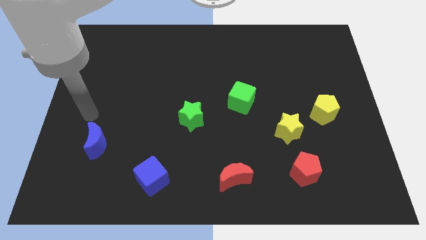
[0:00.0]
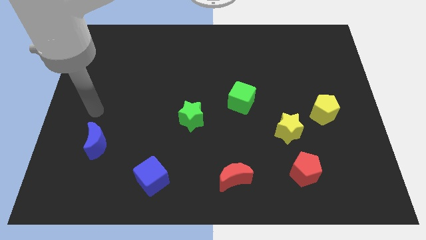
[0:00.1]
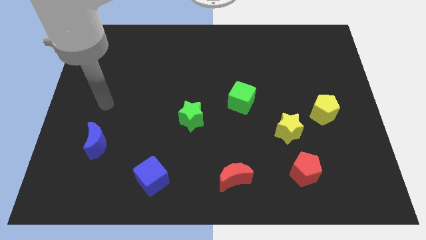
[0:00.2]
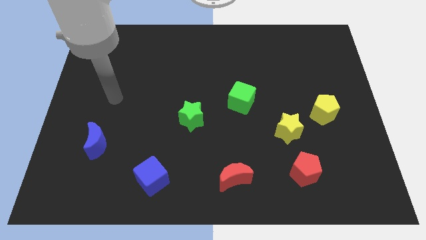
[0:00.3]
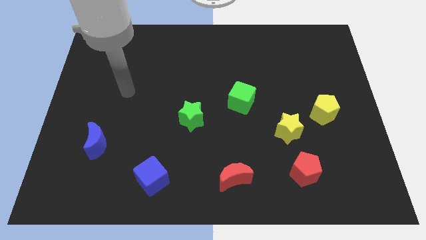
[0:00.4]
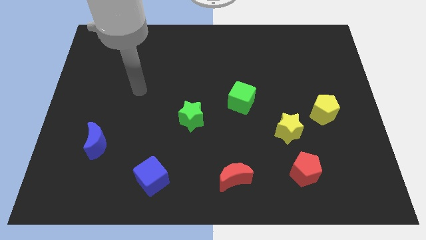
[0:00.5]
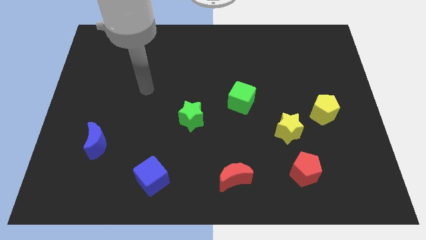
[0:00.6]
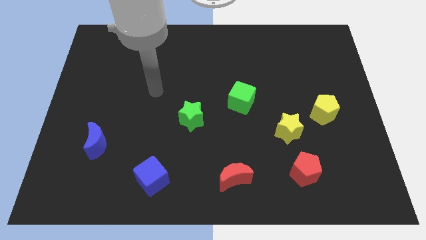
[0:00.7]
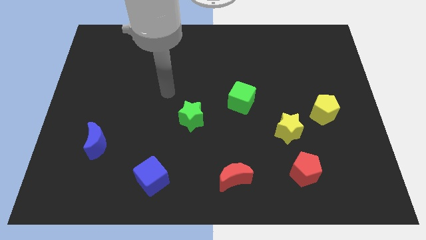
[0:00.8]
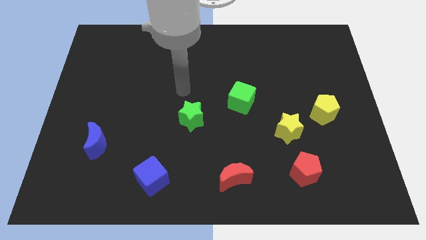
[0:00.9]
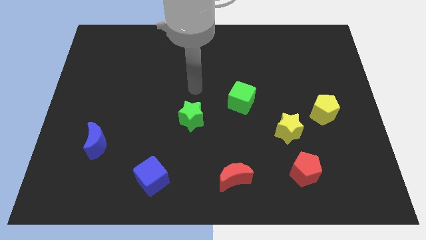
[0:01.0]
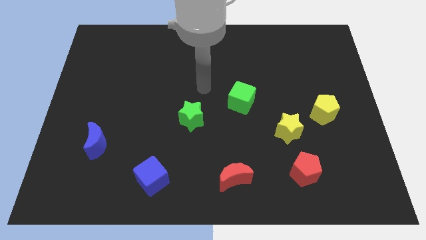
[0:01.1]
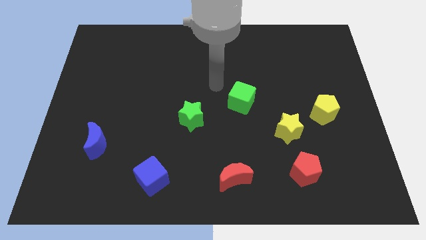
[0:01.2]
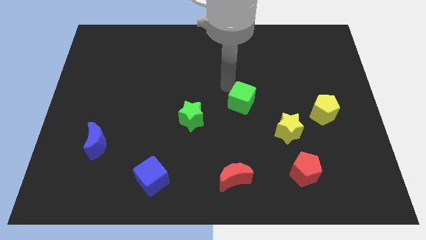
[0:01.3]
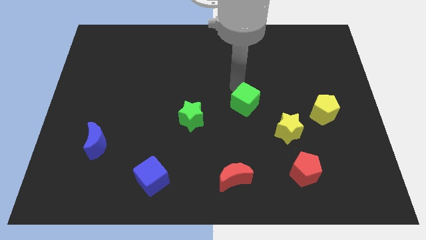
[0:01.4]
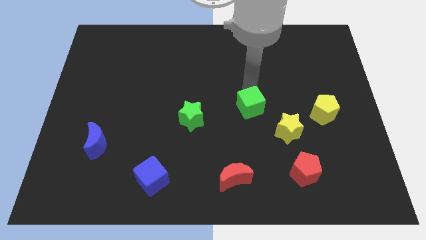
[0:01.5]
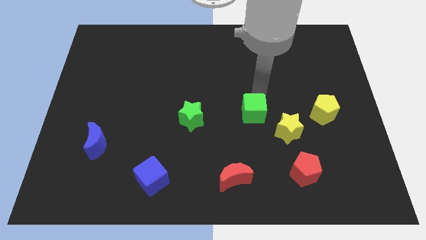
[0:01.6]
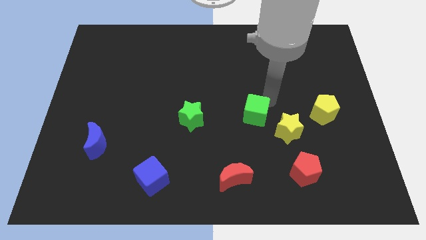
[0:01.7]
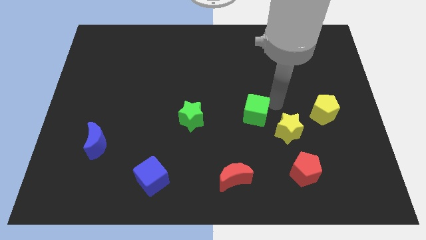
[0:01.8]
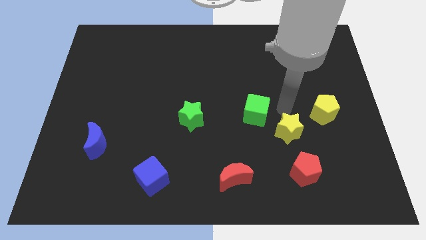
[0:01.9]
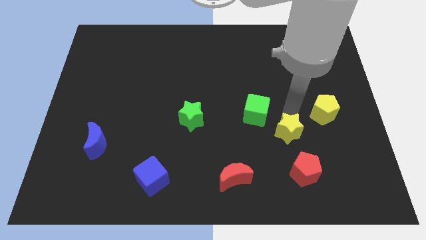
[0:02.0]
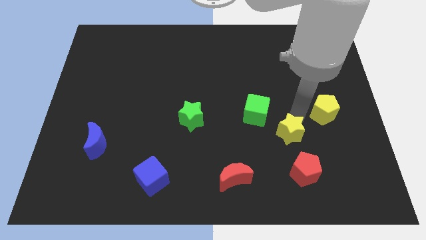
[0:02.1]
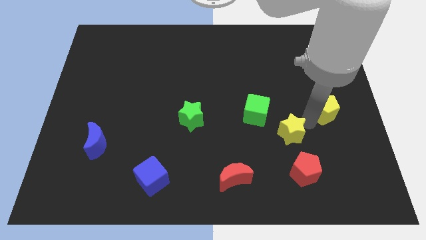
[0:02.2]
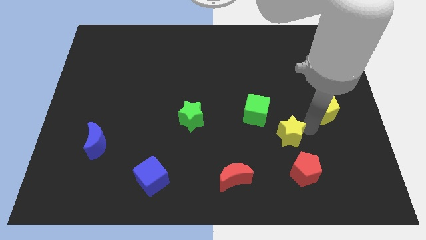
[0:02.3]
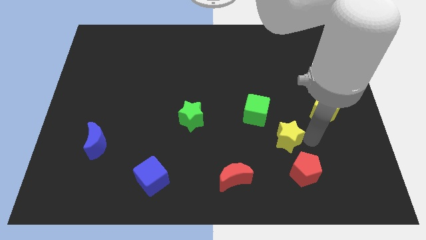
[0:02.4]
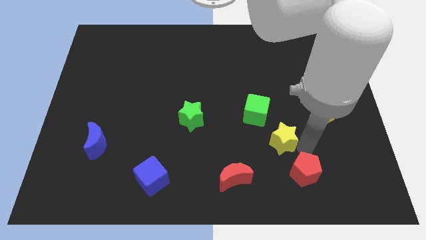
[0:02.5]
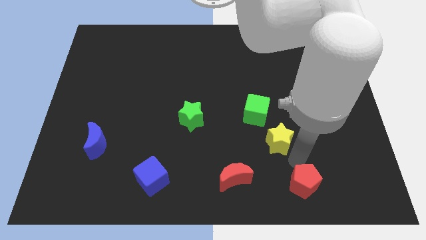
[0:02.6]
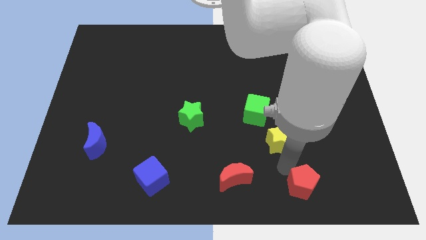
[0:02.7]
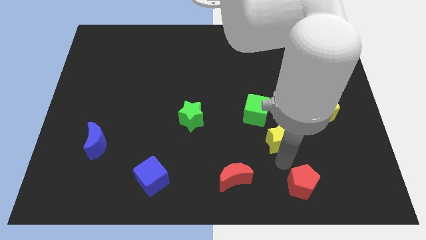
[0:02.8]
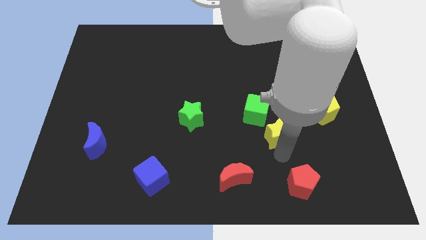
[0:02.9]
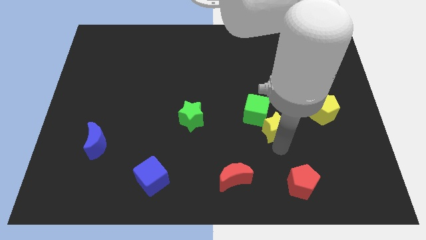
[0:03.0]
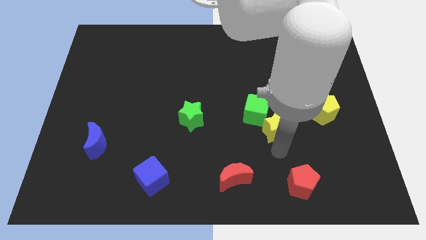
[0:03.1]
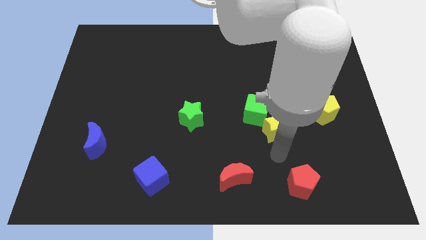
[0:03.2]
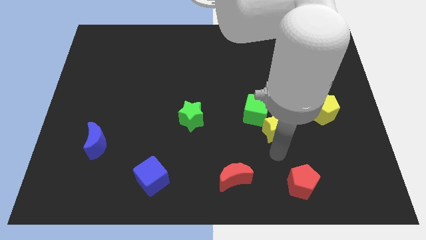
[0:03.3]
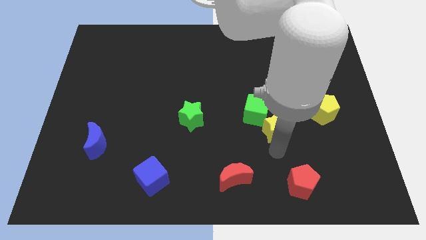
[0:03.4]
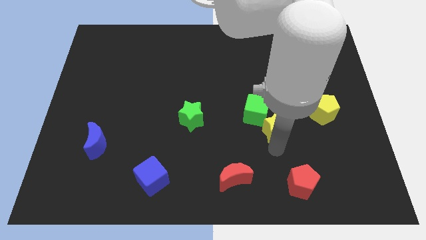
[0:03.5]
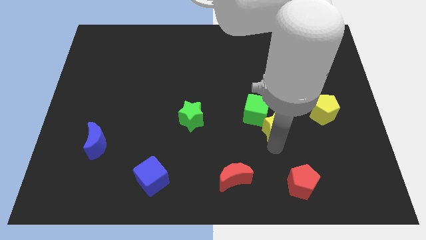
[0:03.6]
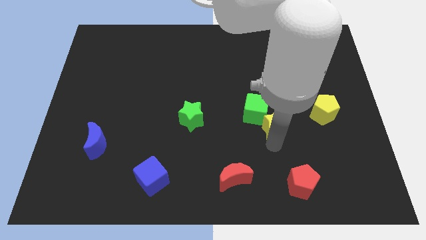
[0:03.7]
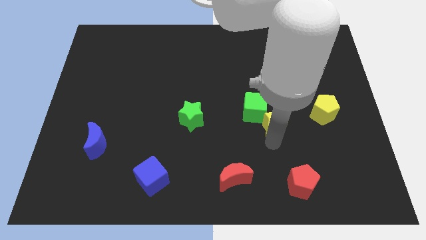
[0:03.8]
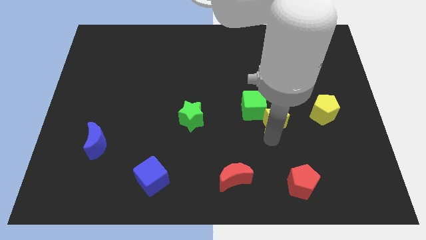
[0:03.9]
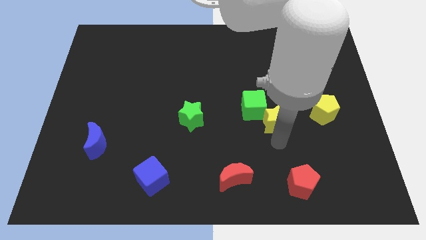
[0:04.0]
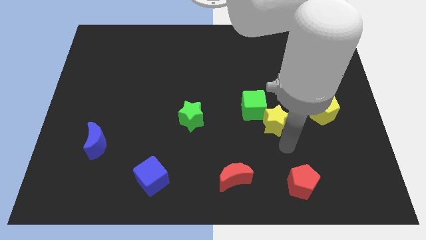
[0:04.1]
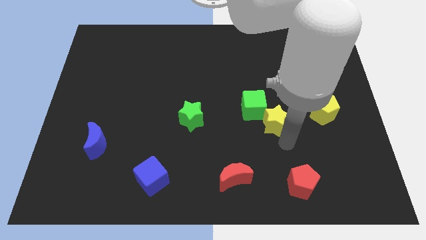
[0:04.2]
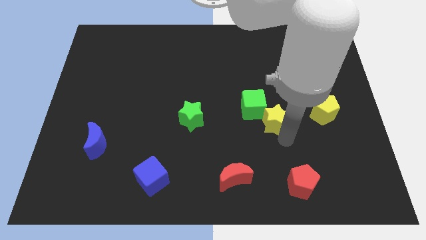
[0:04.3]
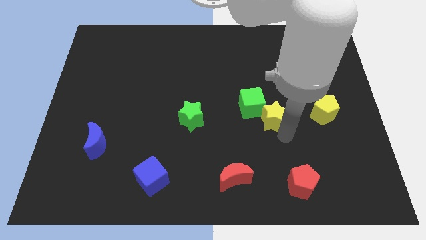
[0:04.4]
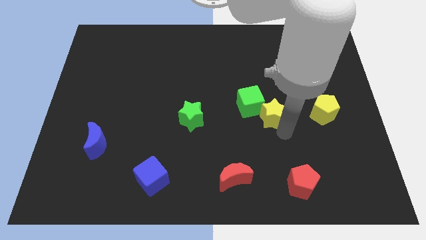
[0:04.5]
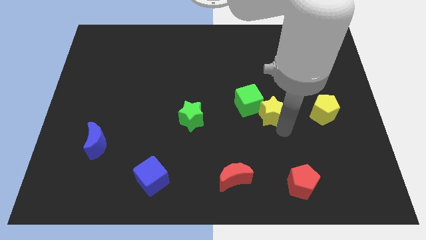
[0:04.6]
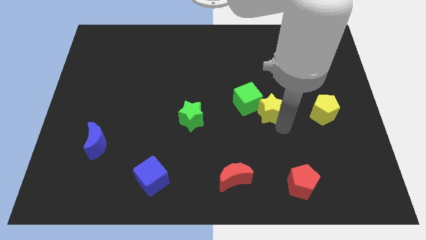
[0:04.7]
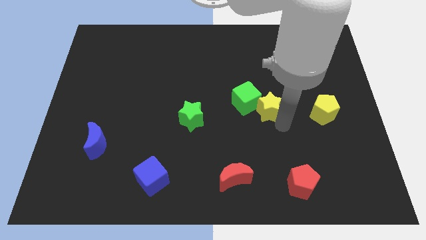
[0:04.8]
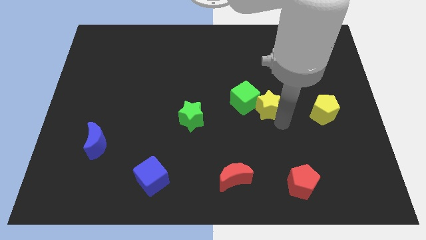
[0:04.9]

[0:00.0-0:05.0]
slide the yellow star slightly upwards and left

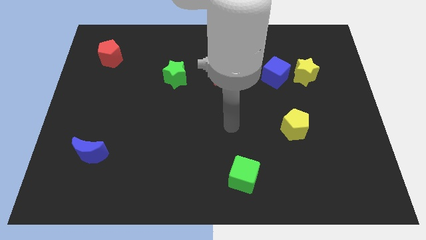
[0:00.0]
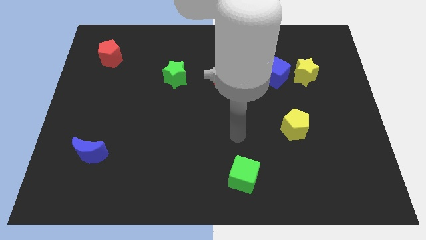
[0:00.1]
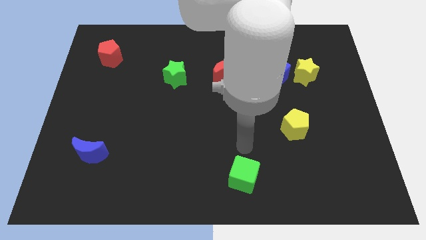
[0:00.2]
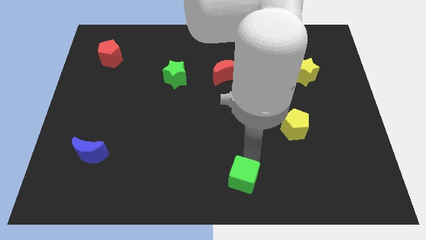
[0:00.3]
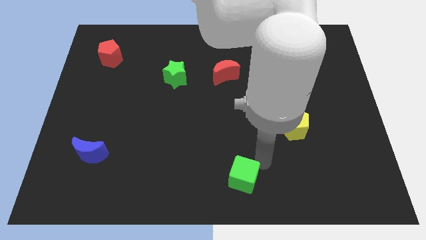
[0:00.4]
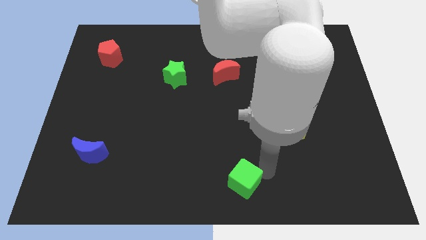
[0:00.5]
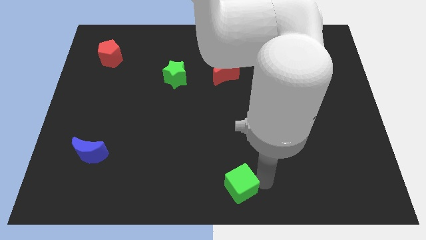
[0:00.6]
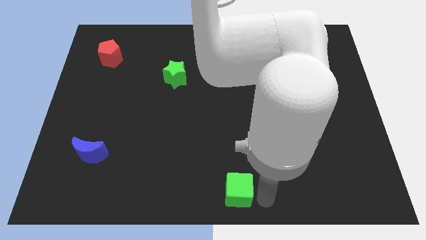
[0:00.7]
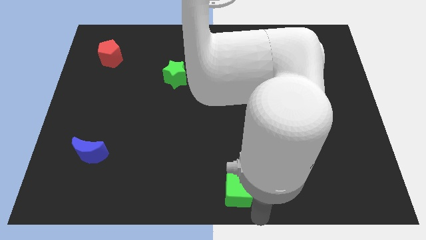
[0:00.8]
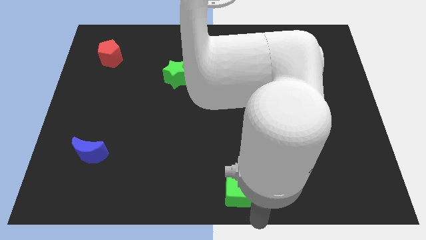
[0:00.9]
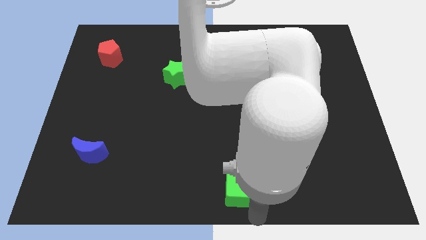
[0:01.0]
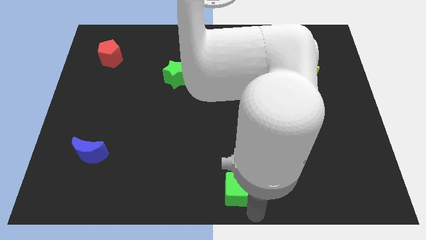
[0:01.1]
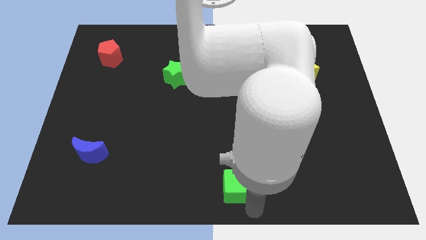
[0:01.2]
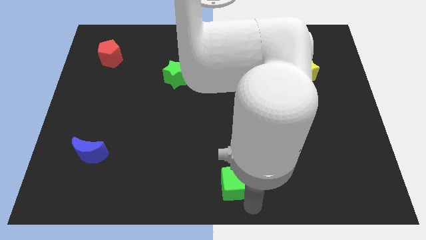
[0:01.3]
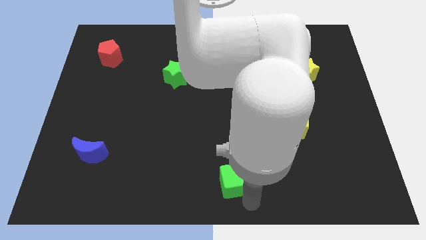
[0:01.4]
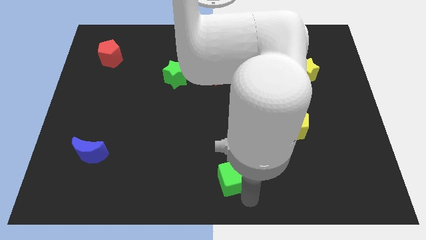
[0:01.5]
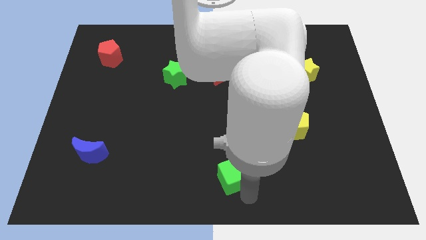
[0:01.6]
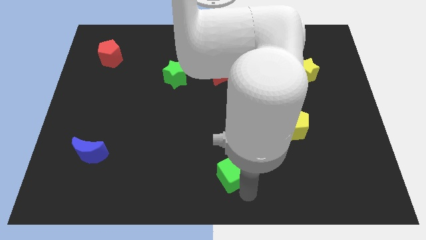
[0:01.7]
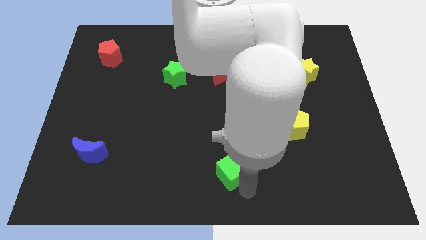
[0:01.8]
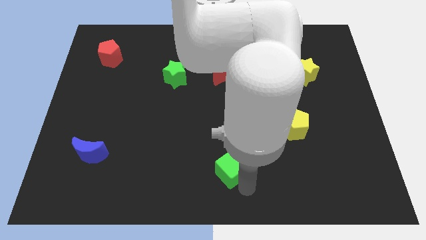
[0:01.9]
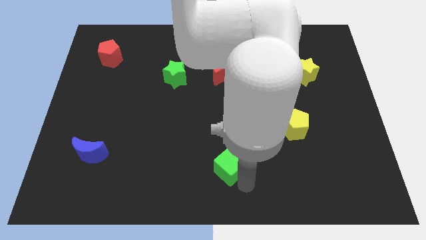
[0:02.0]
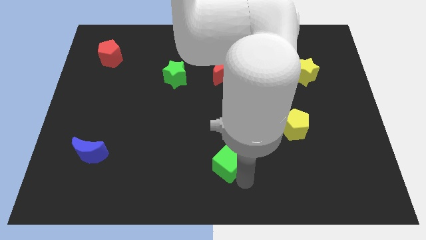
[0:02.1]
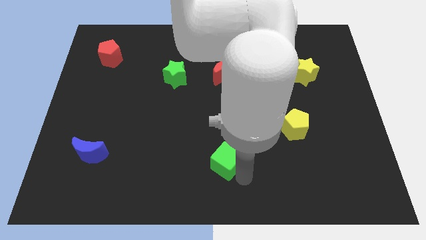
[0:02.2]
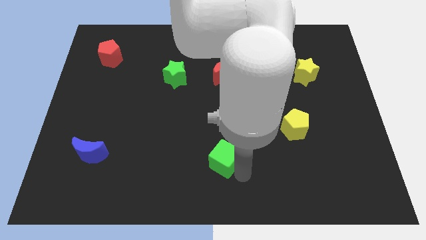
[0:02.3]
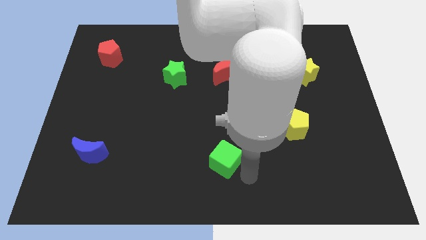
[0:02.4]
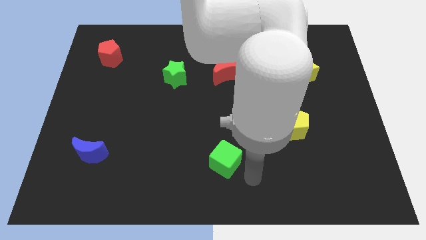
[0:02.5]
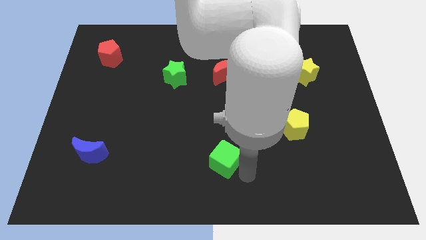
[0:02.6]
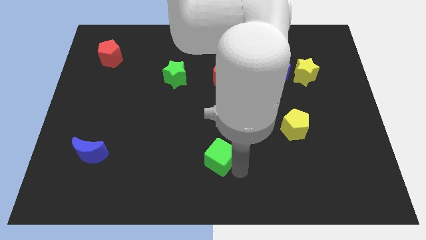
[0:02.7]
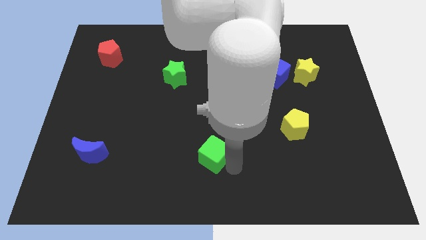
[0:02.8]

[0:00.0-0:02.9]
slightly push the green cube upwards and left diagonally

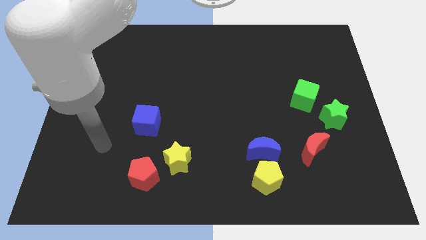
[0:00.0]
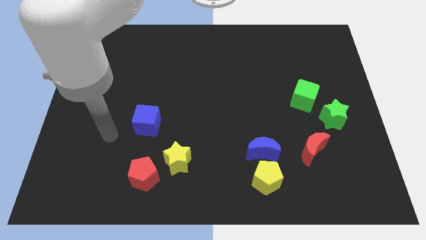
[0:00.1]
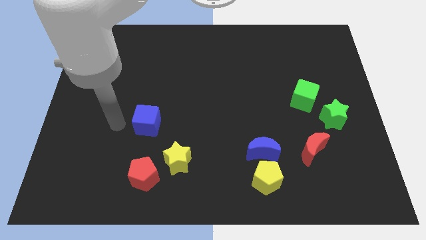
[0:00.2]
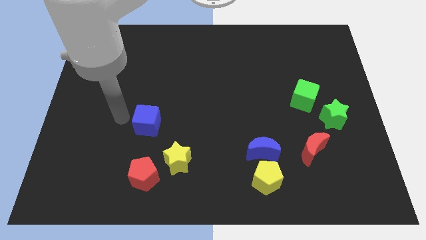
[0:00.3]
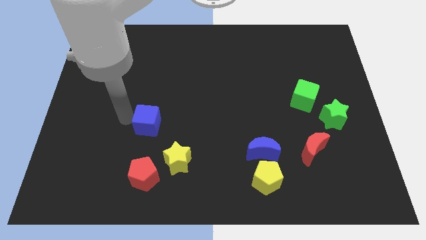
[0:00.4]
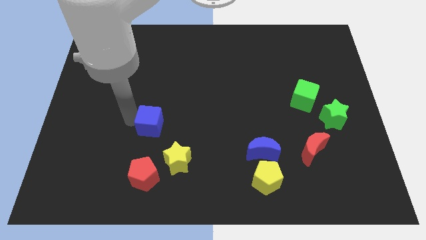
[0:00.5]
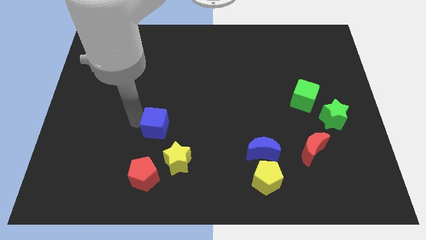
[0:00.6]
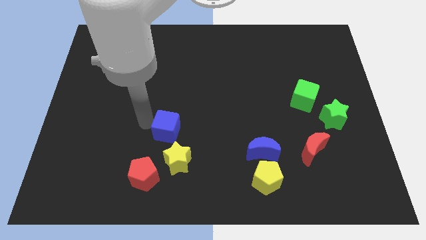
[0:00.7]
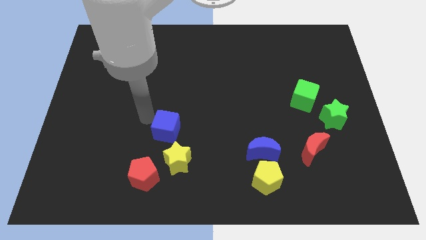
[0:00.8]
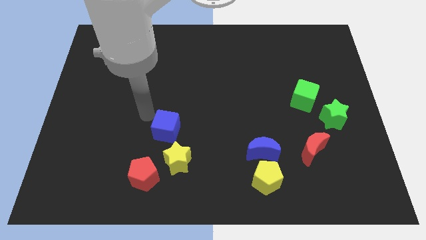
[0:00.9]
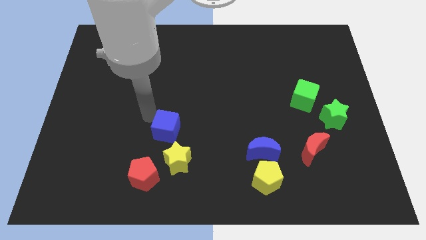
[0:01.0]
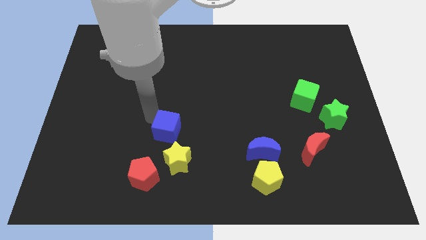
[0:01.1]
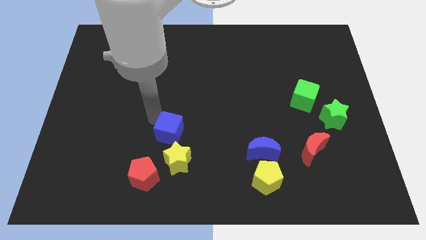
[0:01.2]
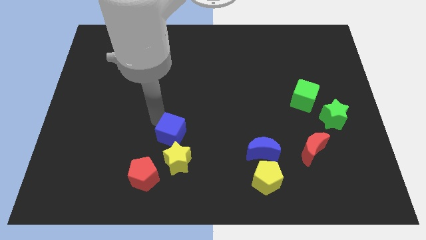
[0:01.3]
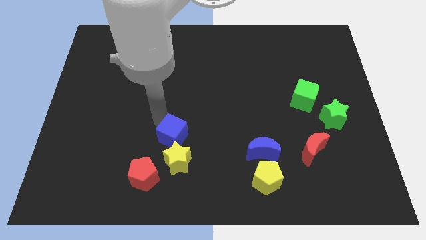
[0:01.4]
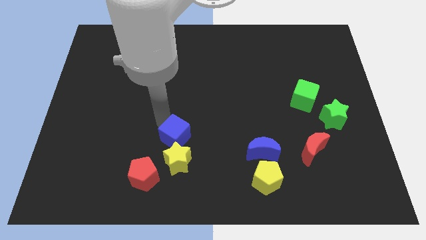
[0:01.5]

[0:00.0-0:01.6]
slightly slide the blue cube down and to the right
